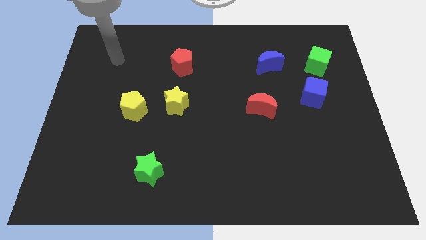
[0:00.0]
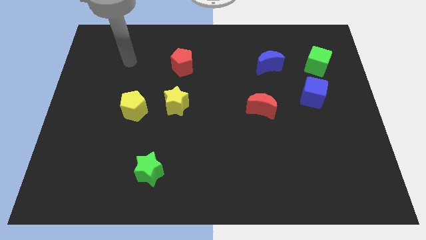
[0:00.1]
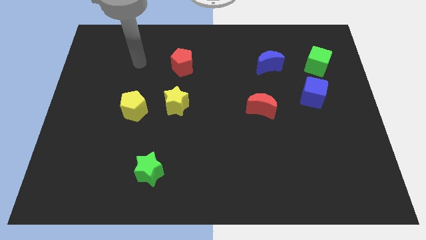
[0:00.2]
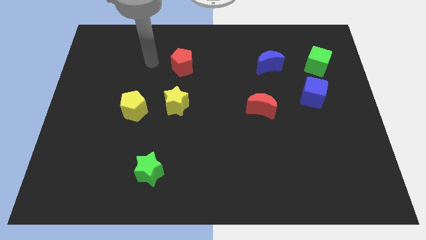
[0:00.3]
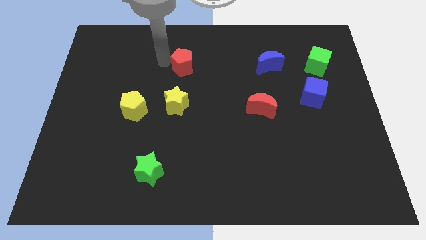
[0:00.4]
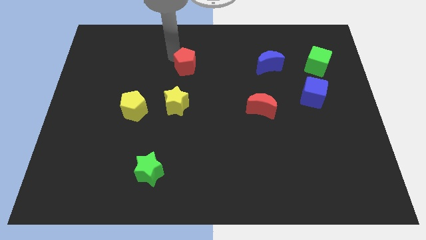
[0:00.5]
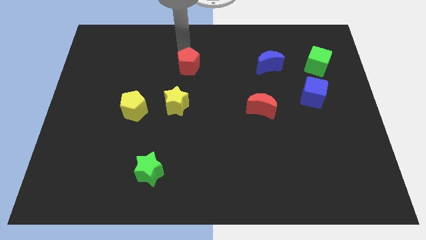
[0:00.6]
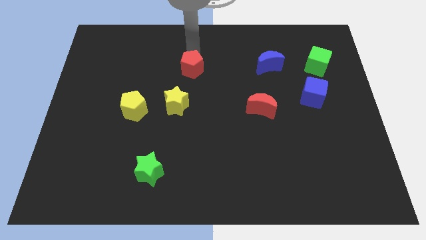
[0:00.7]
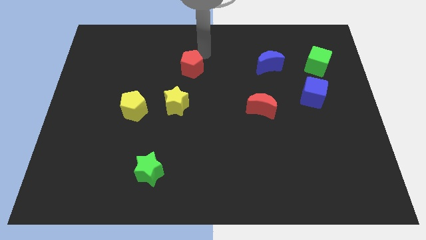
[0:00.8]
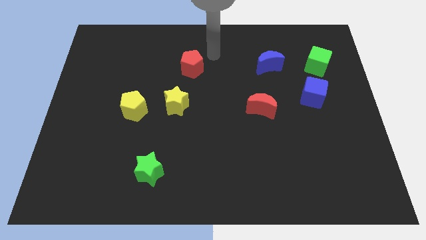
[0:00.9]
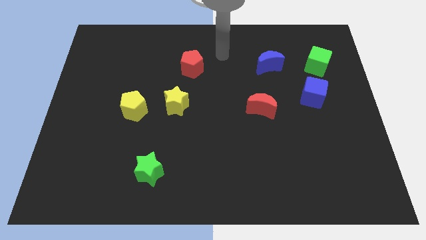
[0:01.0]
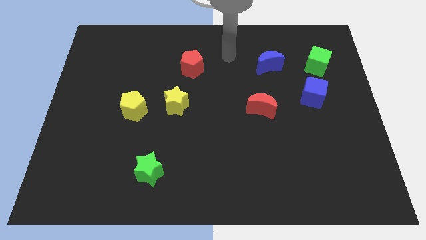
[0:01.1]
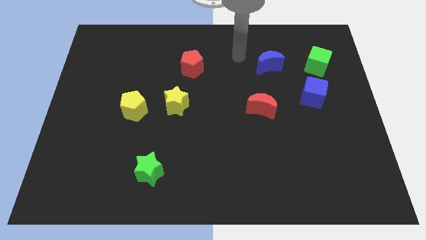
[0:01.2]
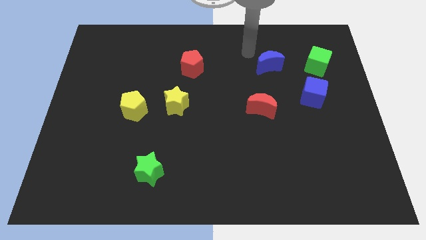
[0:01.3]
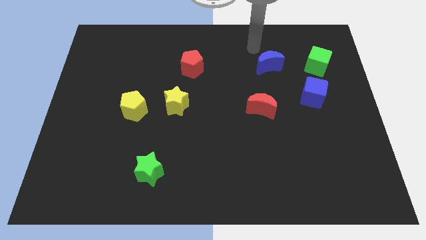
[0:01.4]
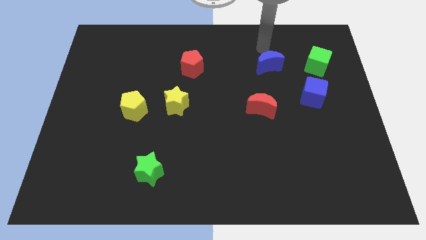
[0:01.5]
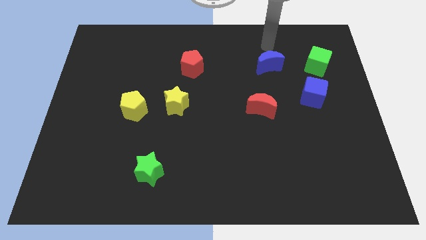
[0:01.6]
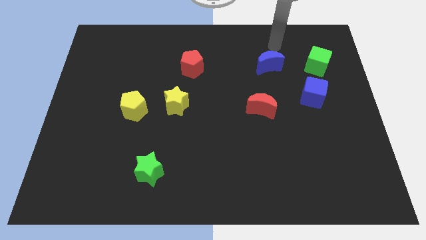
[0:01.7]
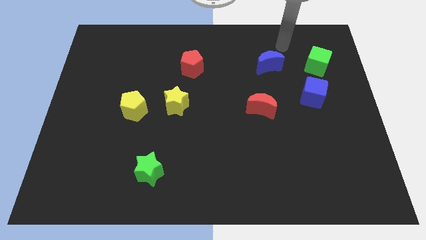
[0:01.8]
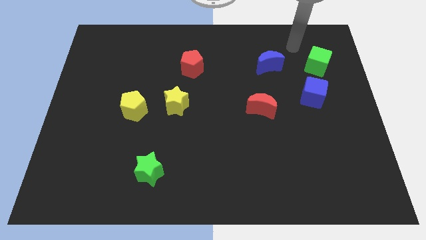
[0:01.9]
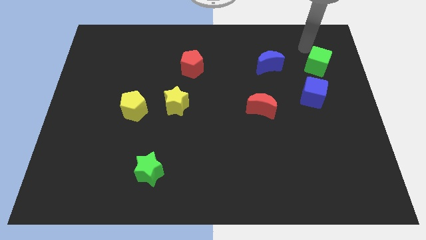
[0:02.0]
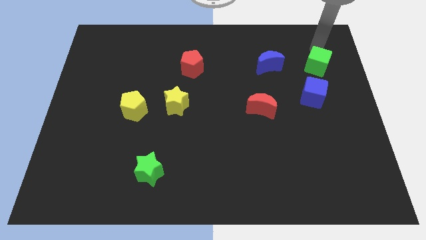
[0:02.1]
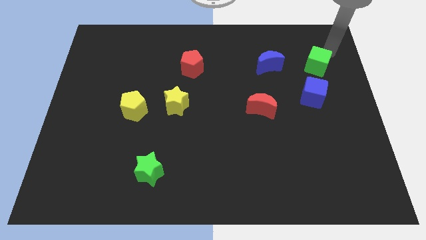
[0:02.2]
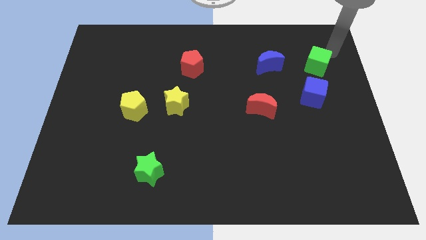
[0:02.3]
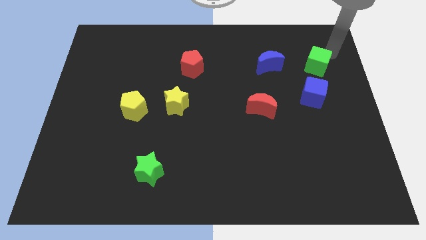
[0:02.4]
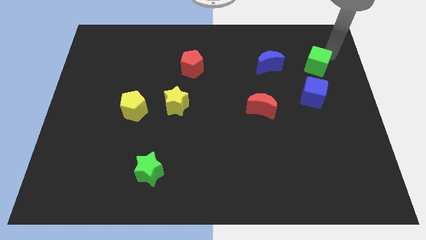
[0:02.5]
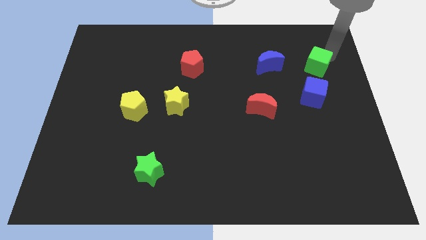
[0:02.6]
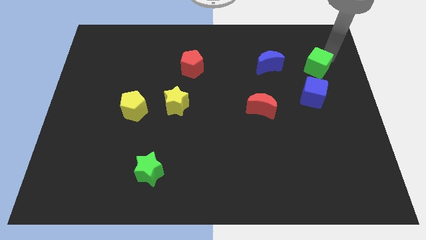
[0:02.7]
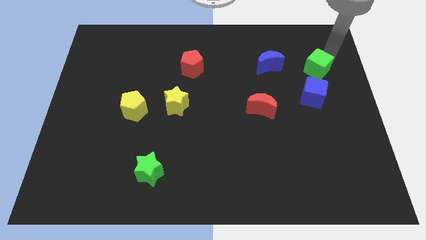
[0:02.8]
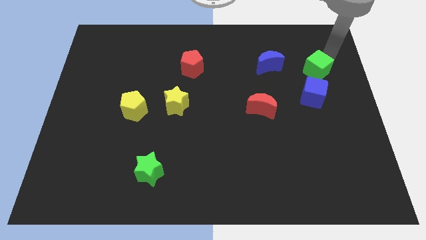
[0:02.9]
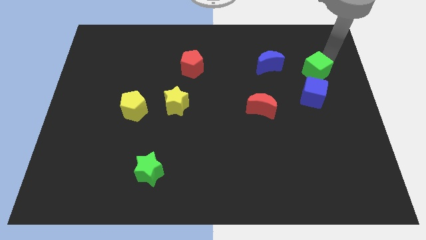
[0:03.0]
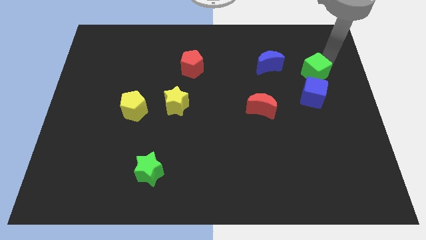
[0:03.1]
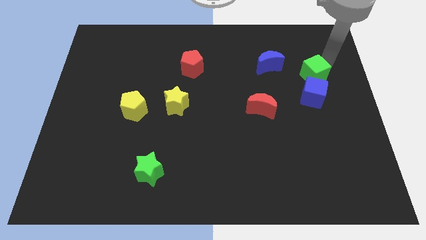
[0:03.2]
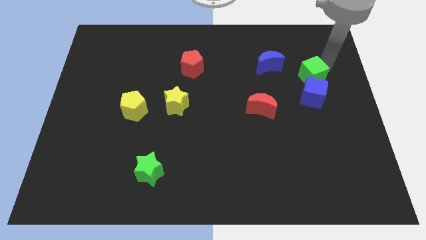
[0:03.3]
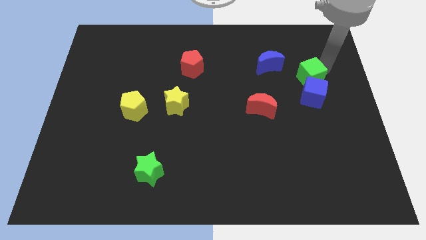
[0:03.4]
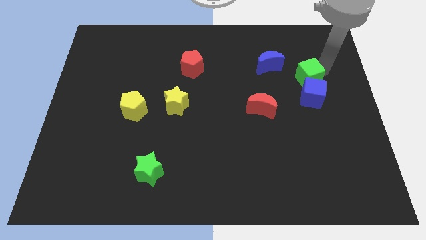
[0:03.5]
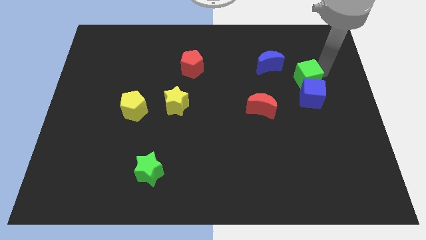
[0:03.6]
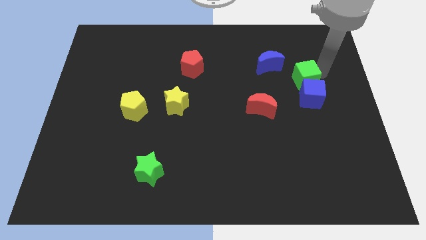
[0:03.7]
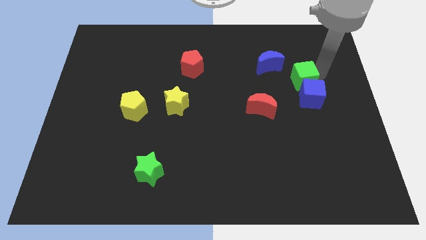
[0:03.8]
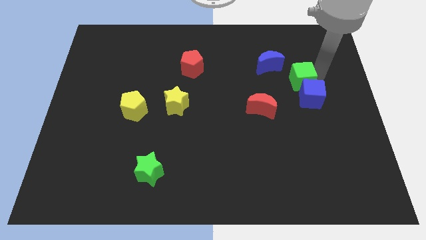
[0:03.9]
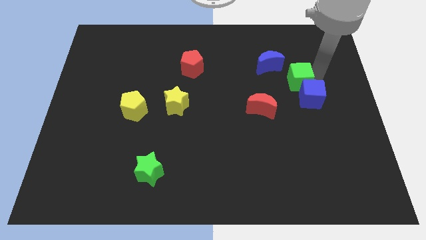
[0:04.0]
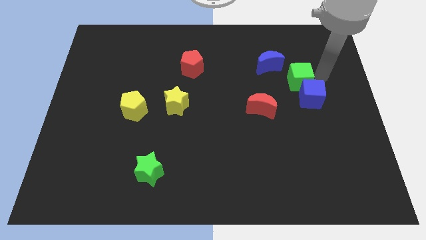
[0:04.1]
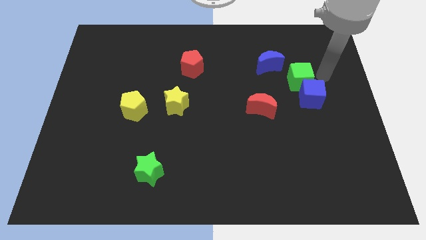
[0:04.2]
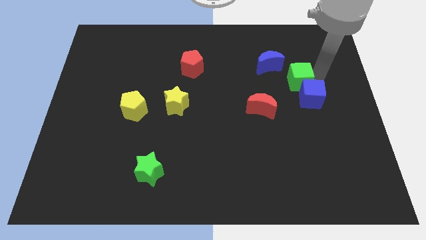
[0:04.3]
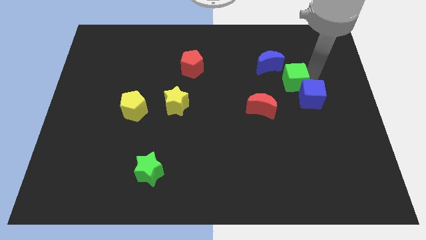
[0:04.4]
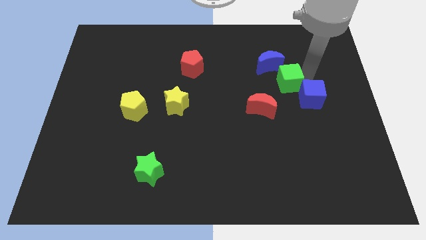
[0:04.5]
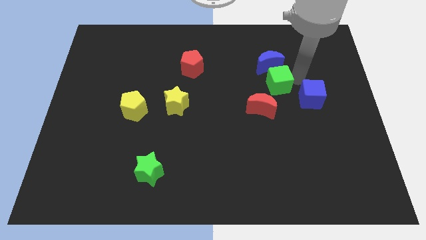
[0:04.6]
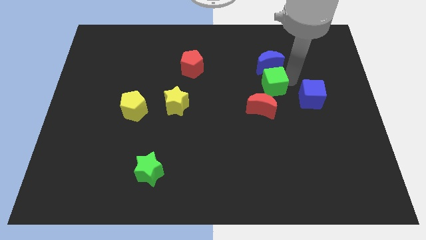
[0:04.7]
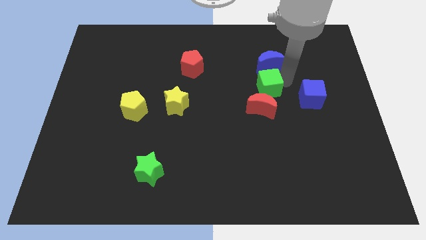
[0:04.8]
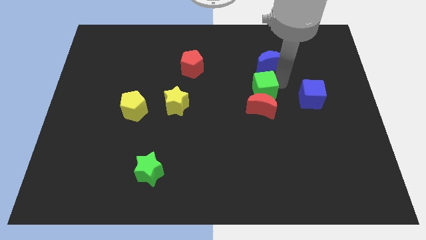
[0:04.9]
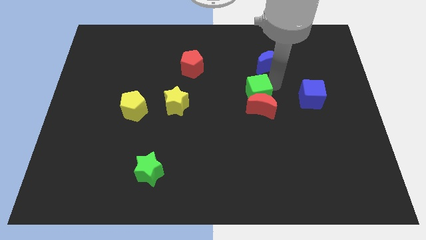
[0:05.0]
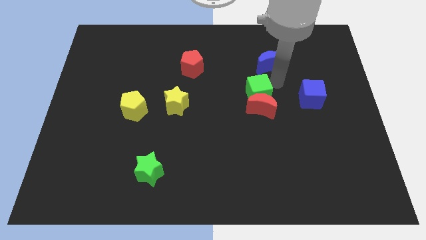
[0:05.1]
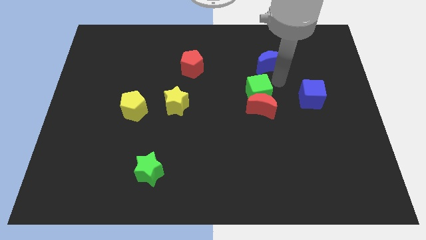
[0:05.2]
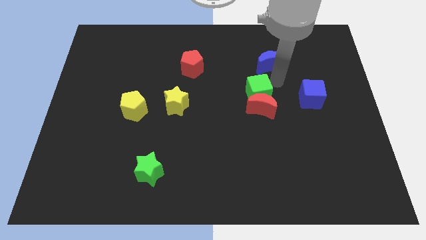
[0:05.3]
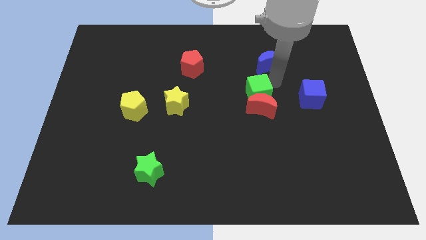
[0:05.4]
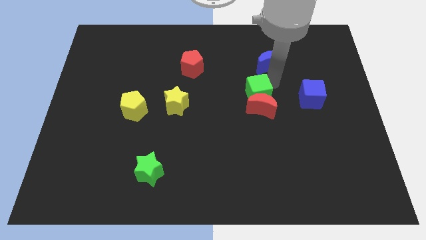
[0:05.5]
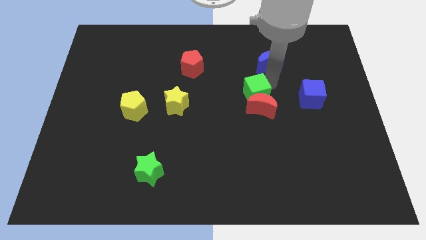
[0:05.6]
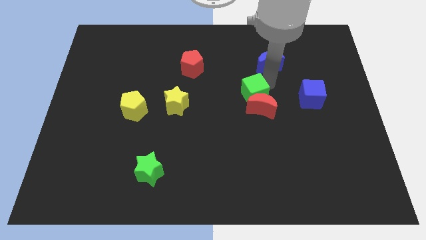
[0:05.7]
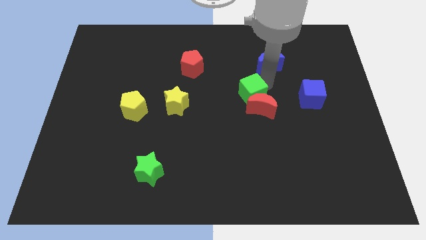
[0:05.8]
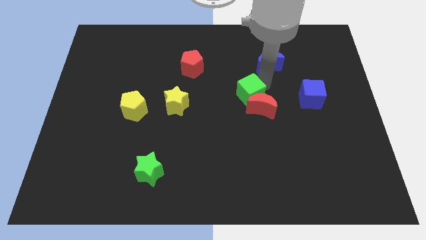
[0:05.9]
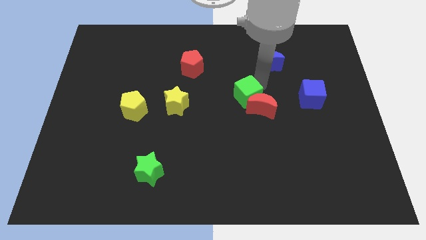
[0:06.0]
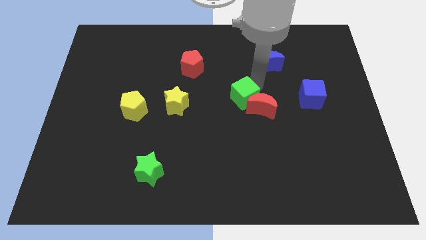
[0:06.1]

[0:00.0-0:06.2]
push the green cube downwards and left diagonally

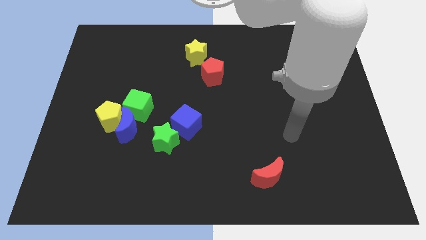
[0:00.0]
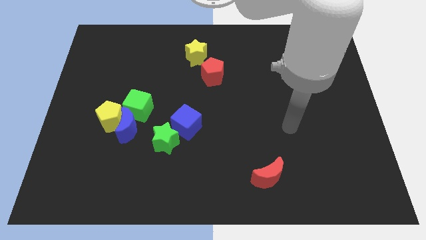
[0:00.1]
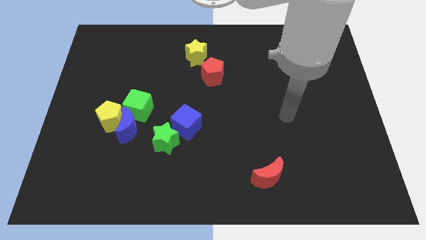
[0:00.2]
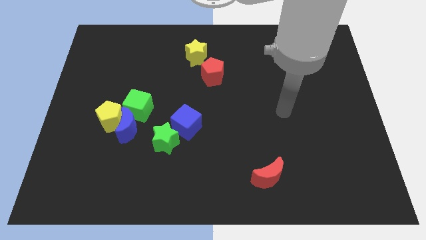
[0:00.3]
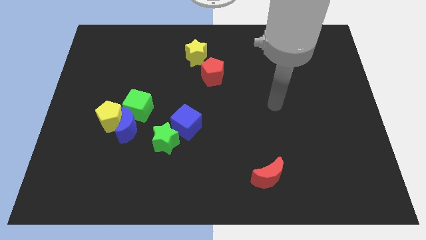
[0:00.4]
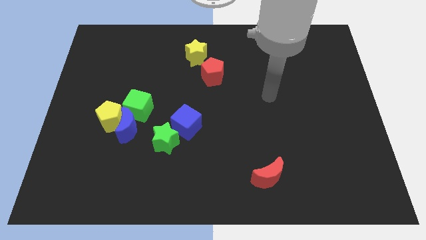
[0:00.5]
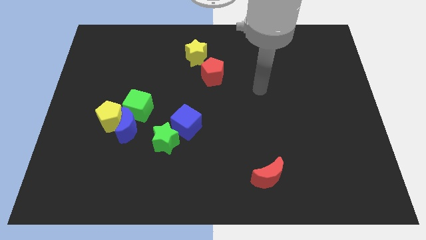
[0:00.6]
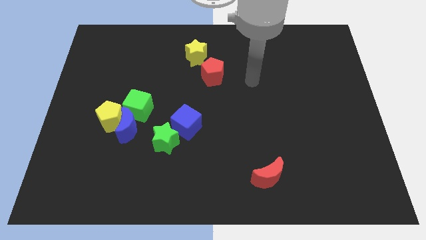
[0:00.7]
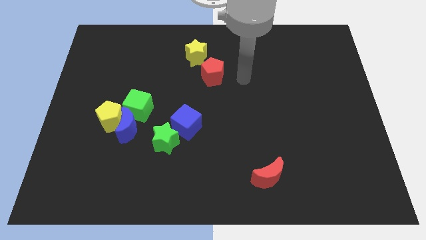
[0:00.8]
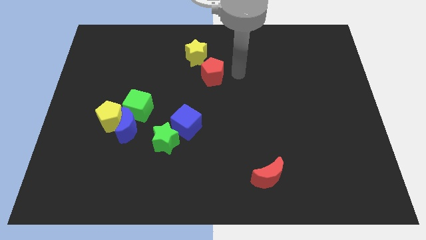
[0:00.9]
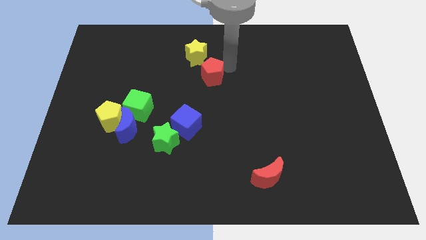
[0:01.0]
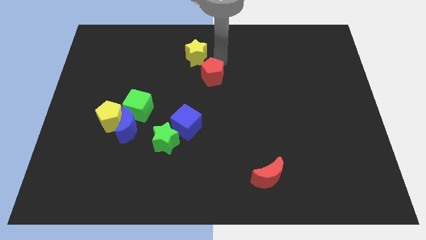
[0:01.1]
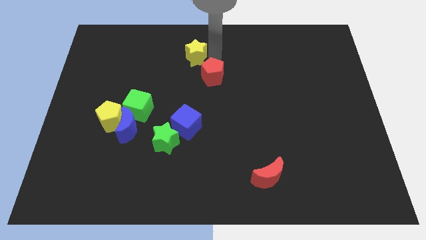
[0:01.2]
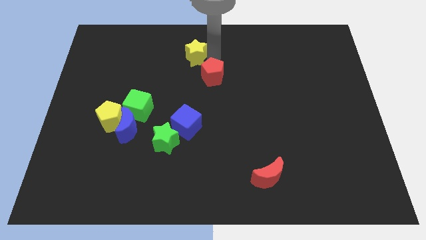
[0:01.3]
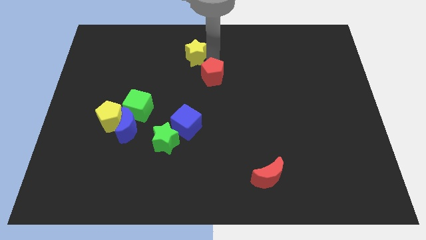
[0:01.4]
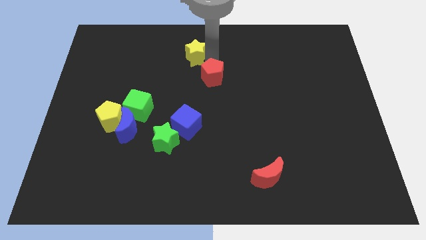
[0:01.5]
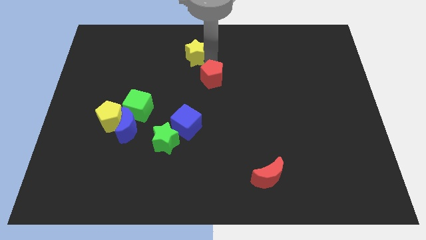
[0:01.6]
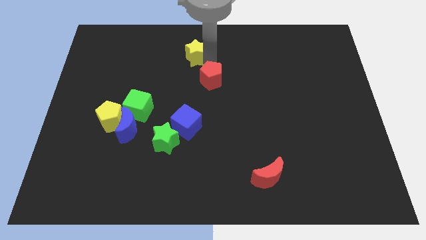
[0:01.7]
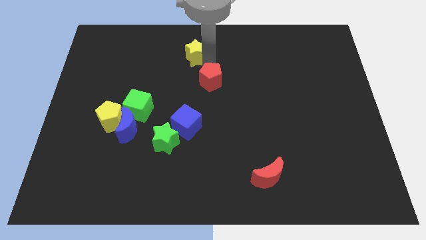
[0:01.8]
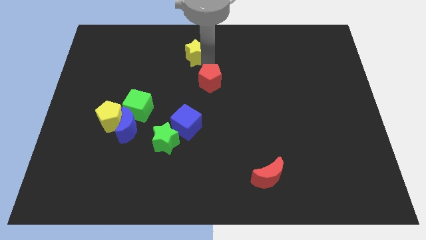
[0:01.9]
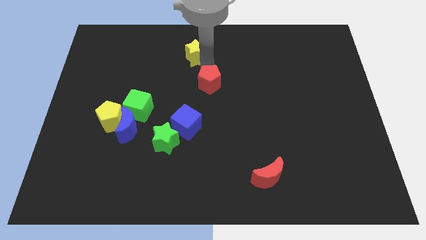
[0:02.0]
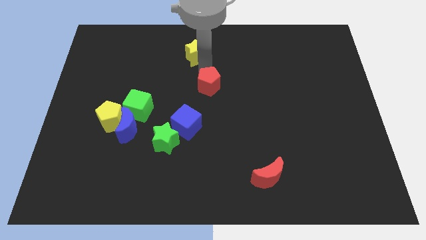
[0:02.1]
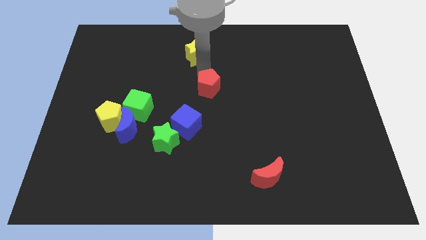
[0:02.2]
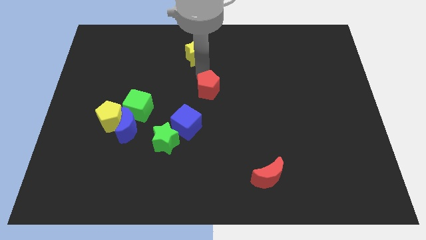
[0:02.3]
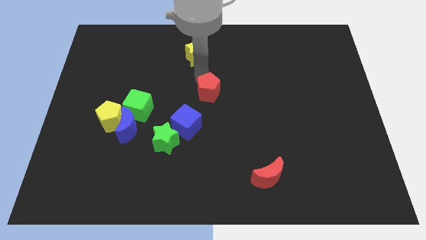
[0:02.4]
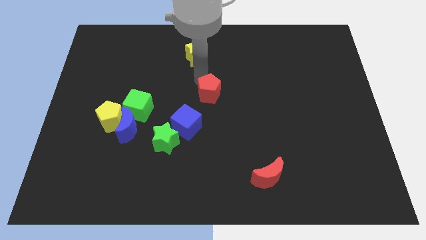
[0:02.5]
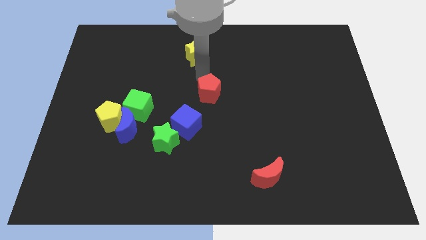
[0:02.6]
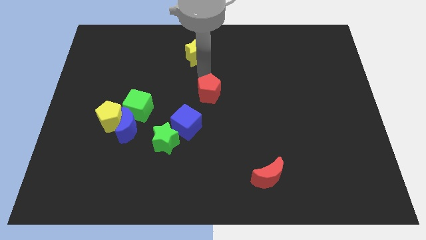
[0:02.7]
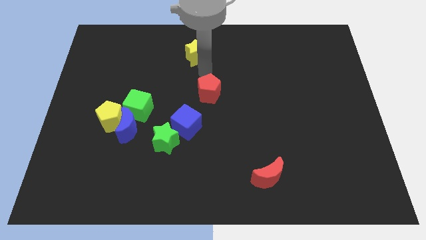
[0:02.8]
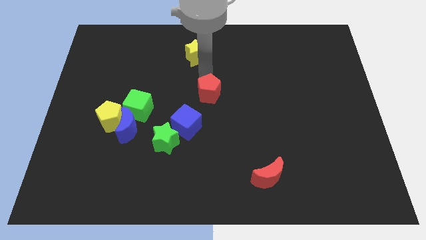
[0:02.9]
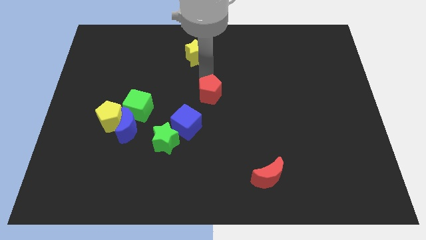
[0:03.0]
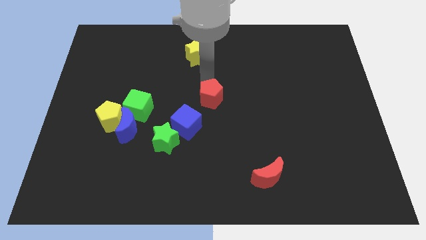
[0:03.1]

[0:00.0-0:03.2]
slide the red pentagon a little downwards
